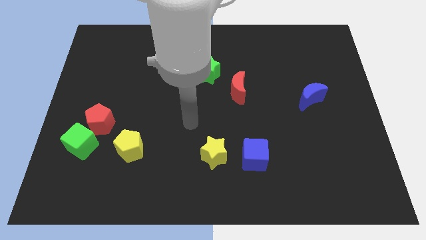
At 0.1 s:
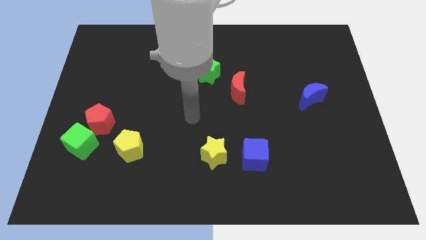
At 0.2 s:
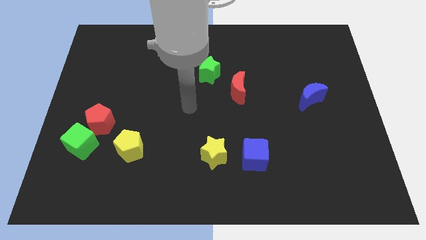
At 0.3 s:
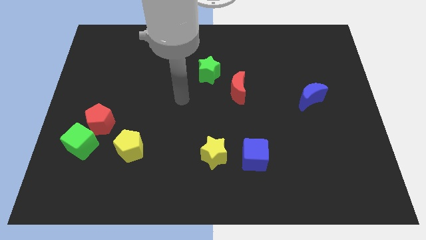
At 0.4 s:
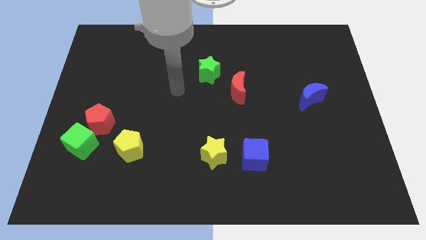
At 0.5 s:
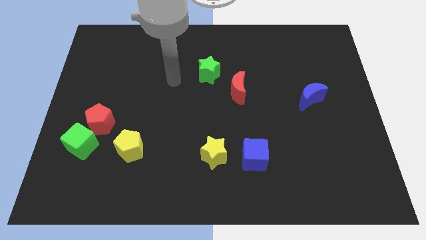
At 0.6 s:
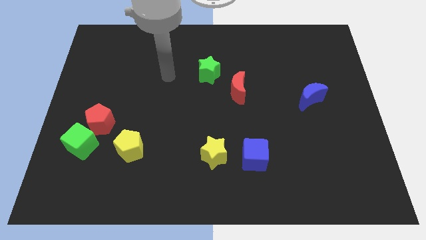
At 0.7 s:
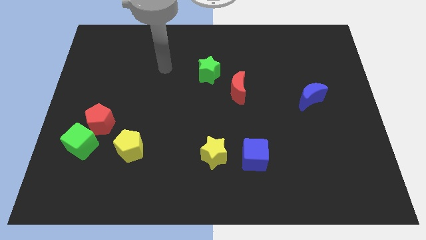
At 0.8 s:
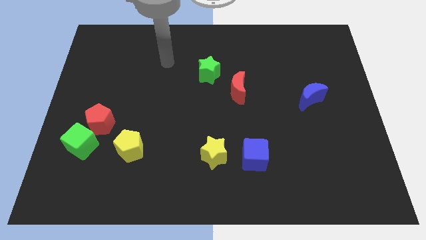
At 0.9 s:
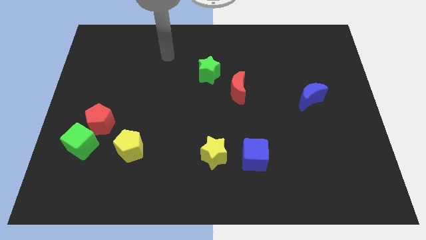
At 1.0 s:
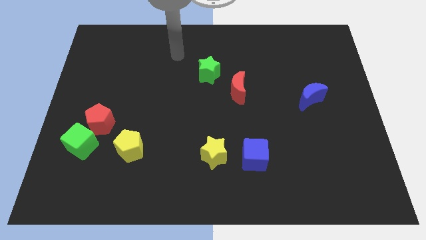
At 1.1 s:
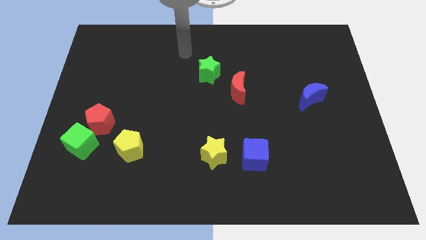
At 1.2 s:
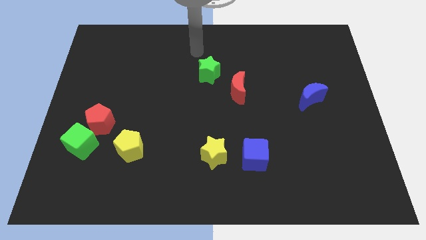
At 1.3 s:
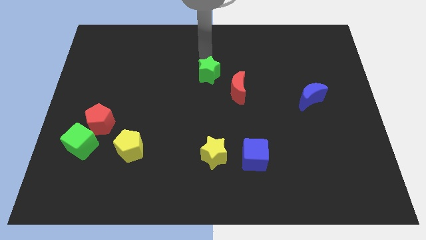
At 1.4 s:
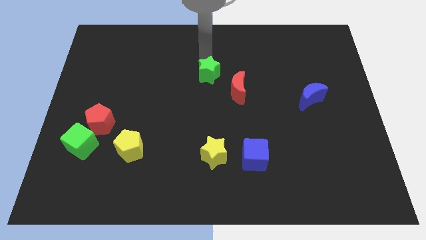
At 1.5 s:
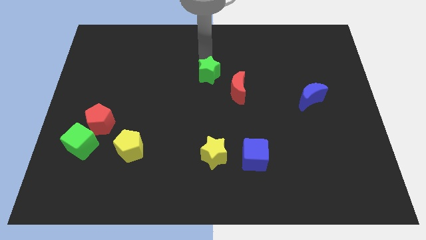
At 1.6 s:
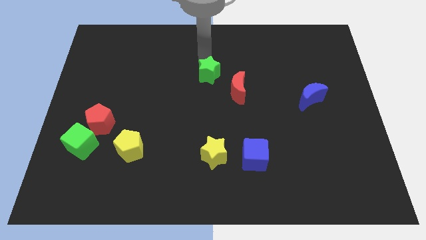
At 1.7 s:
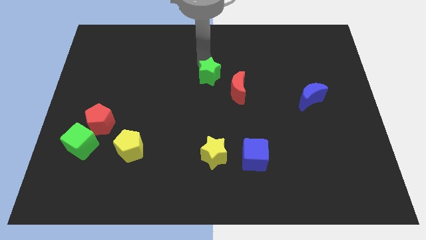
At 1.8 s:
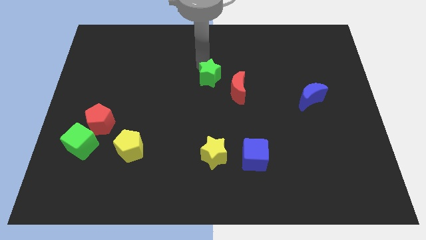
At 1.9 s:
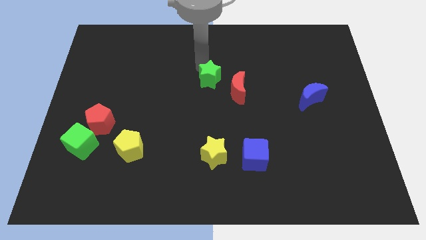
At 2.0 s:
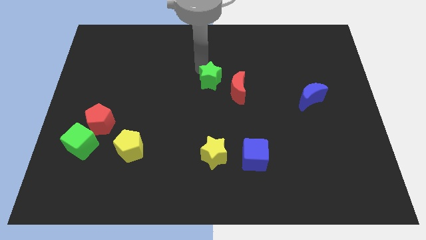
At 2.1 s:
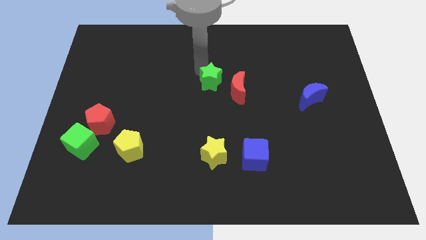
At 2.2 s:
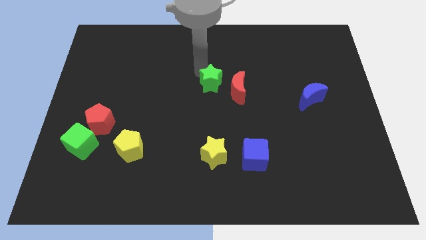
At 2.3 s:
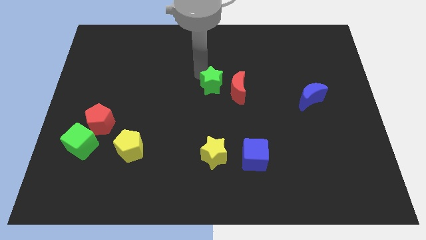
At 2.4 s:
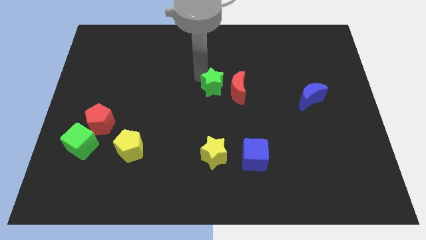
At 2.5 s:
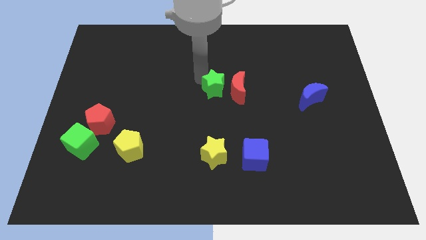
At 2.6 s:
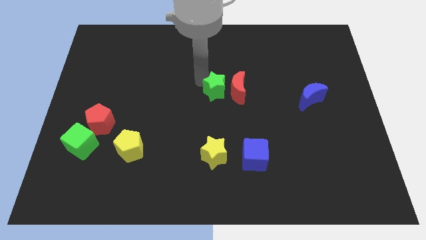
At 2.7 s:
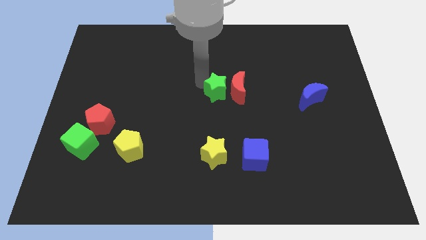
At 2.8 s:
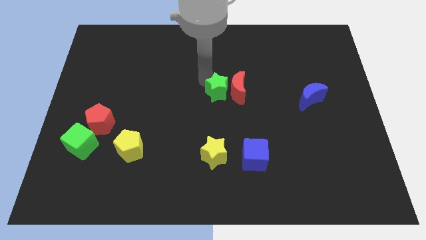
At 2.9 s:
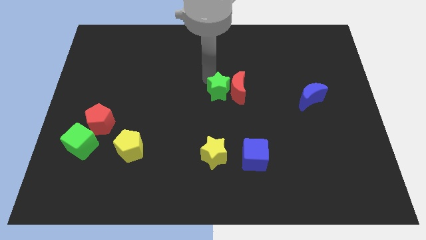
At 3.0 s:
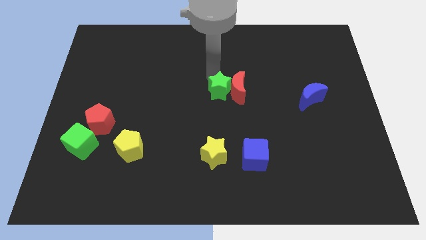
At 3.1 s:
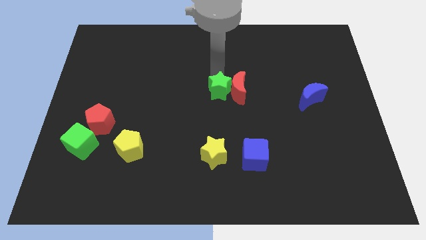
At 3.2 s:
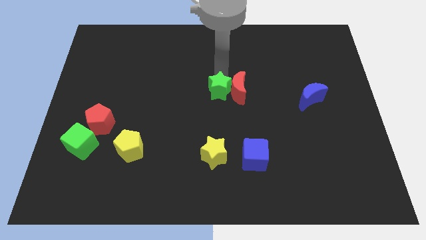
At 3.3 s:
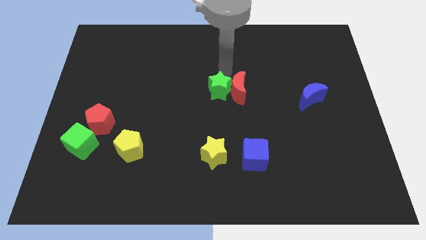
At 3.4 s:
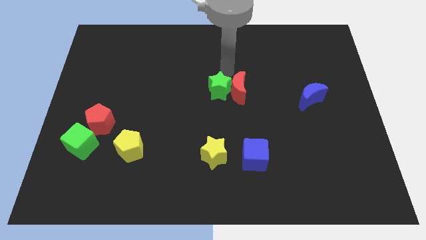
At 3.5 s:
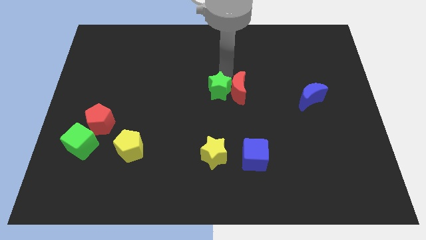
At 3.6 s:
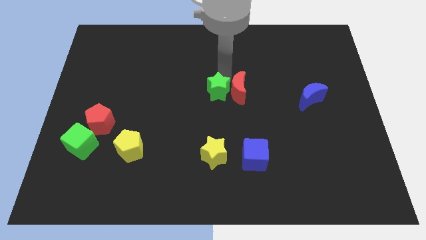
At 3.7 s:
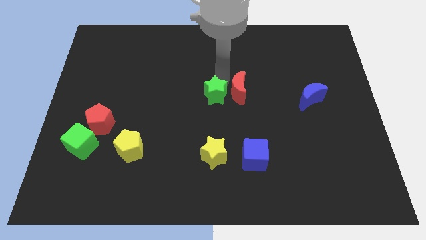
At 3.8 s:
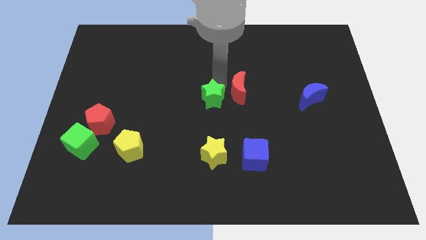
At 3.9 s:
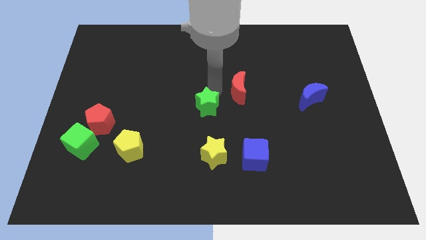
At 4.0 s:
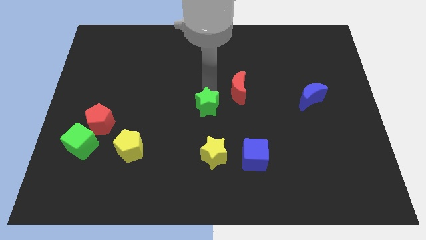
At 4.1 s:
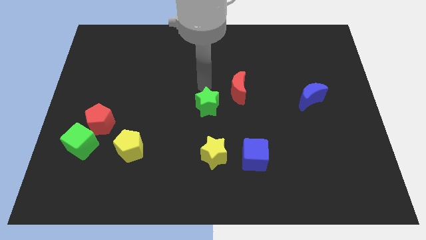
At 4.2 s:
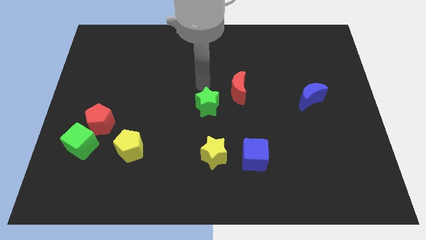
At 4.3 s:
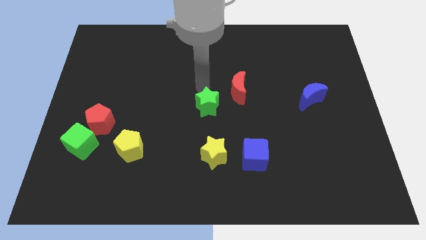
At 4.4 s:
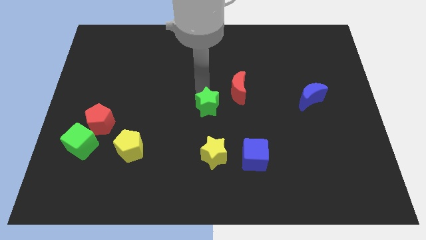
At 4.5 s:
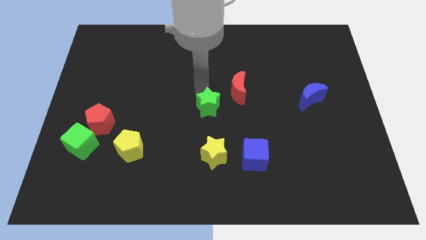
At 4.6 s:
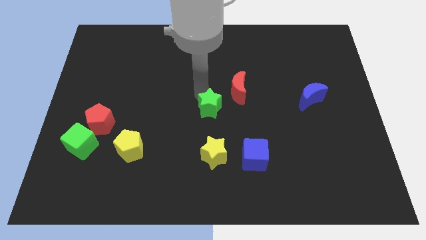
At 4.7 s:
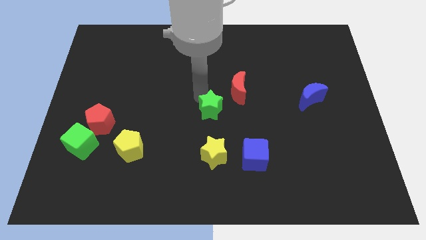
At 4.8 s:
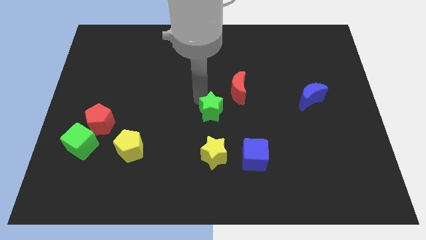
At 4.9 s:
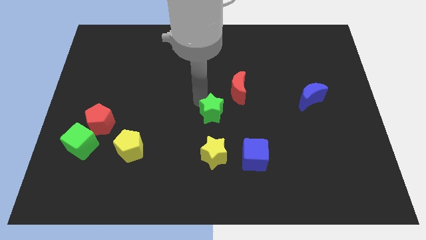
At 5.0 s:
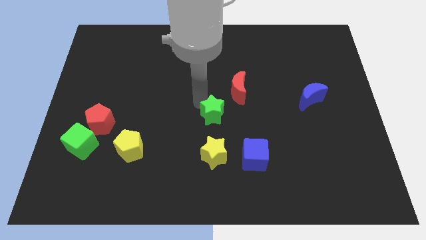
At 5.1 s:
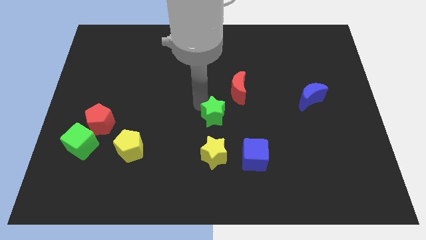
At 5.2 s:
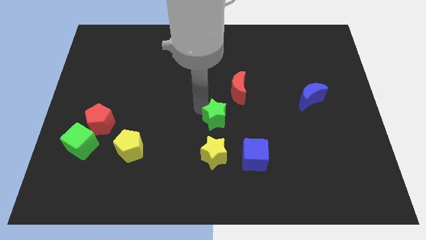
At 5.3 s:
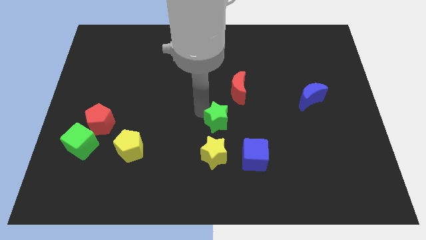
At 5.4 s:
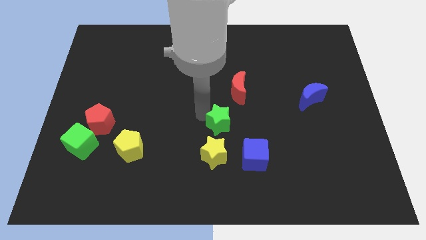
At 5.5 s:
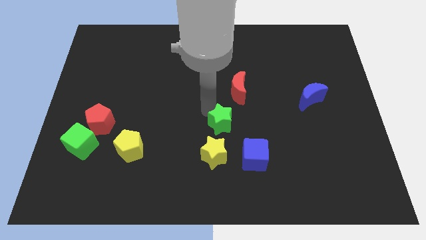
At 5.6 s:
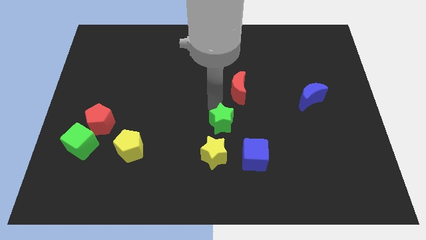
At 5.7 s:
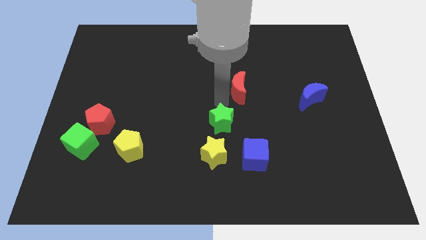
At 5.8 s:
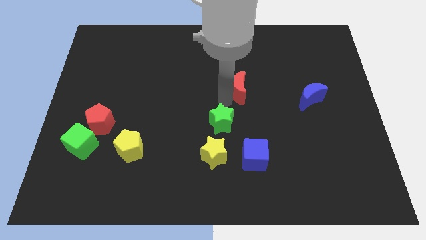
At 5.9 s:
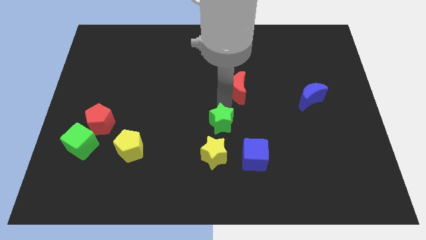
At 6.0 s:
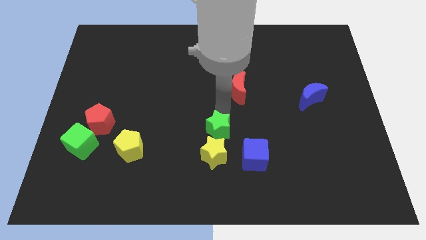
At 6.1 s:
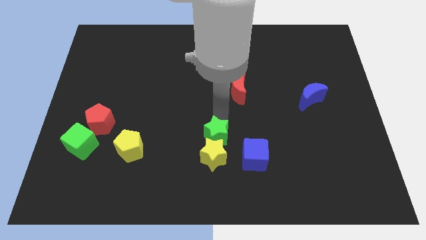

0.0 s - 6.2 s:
move the green star next to the yellow star

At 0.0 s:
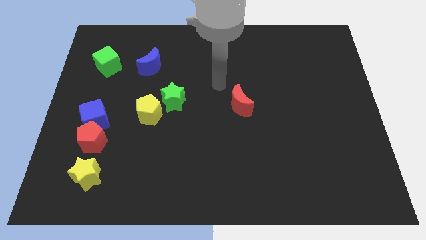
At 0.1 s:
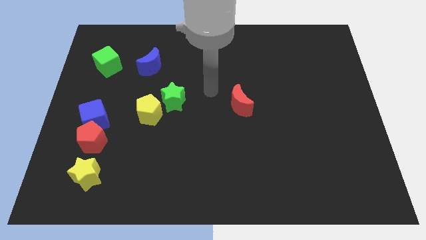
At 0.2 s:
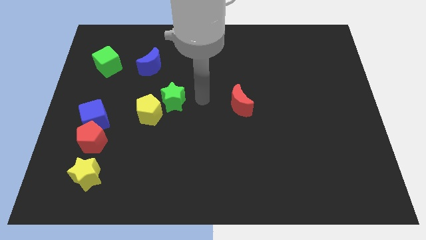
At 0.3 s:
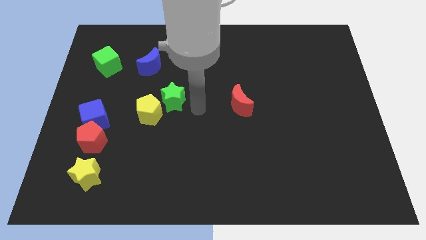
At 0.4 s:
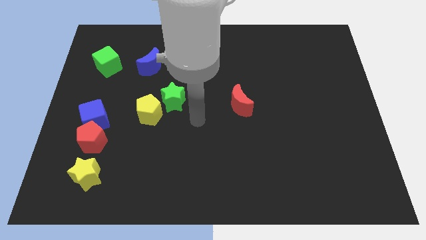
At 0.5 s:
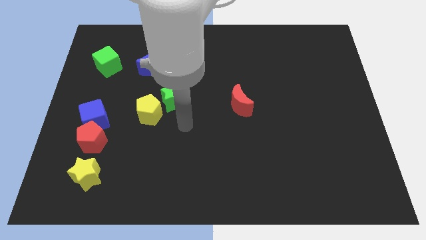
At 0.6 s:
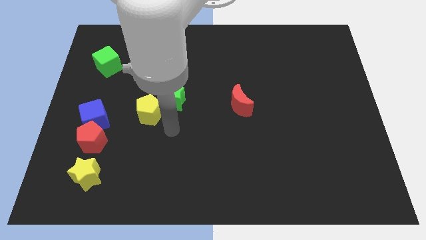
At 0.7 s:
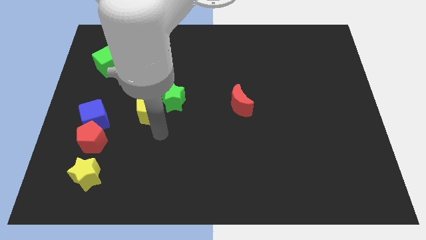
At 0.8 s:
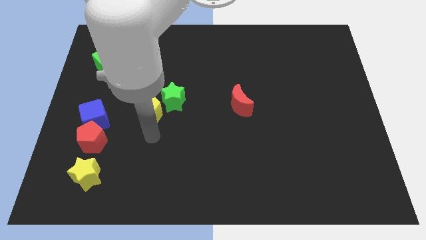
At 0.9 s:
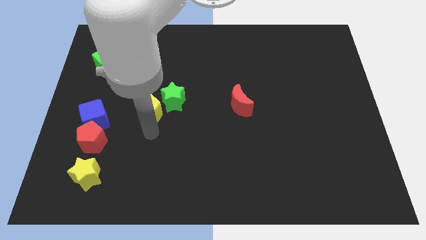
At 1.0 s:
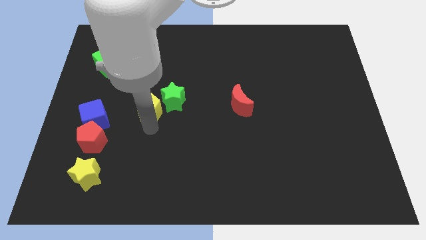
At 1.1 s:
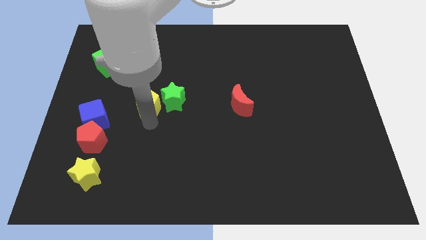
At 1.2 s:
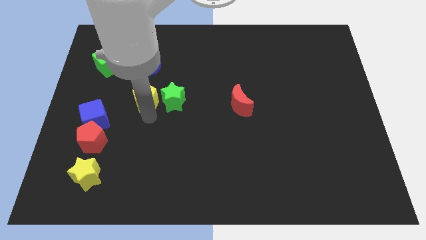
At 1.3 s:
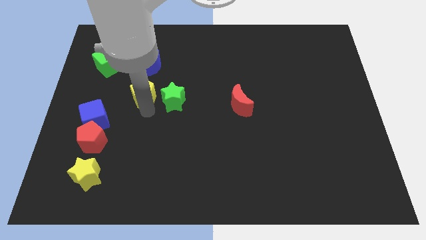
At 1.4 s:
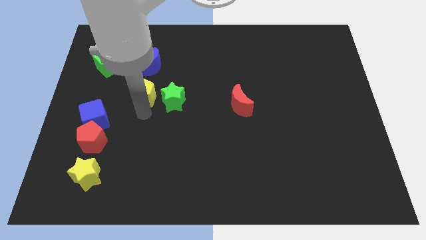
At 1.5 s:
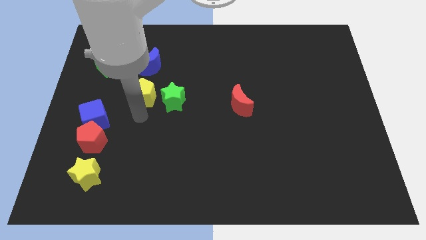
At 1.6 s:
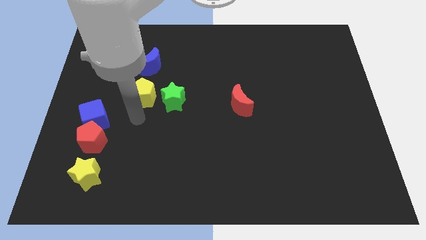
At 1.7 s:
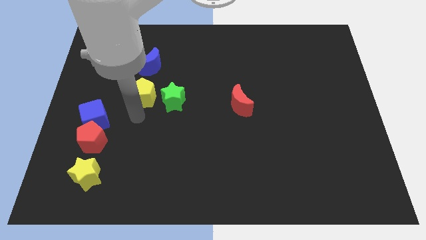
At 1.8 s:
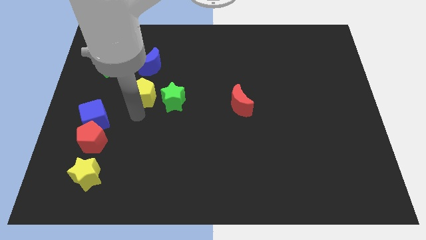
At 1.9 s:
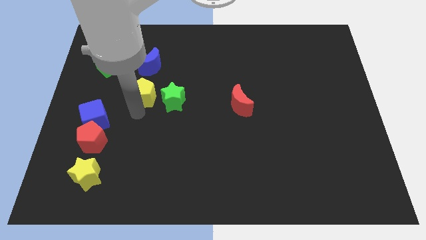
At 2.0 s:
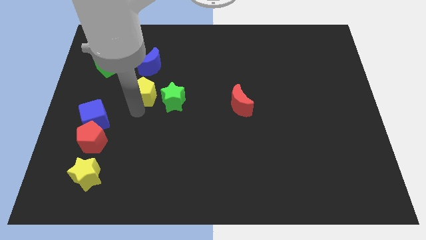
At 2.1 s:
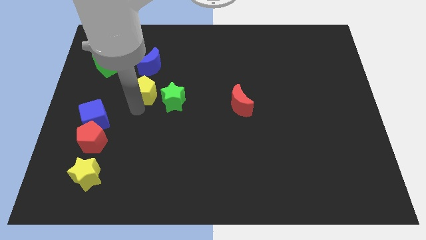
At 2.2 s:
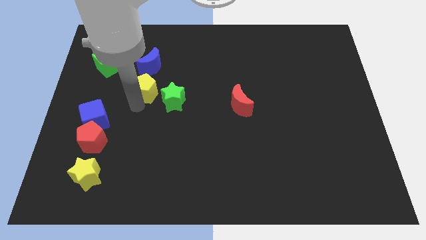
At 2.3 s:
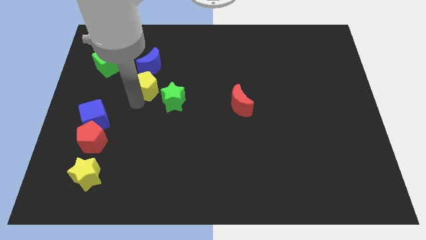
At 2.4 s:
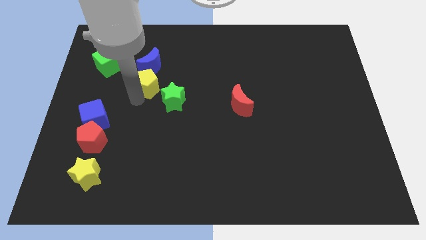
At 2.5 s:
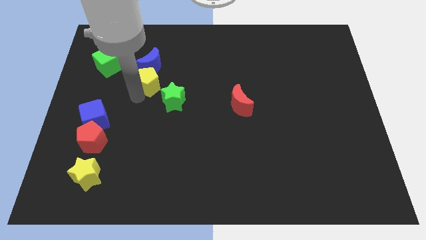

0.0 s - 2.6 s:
slide the yellow pentagon next to the blue moon
